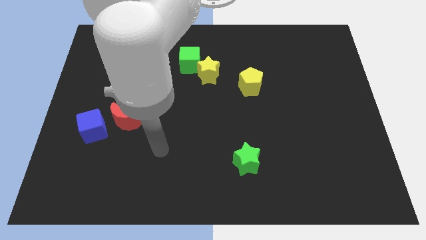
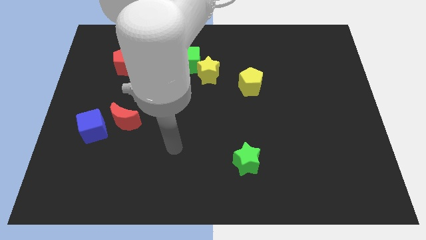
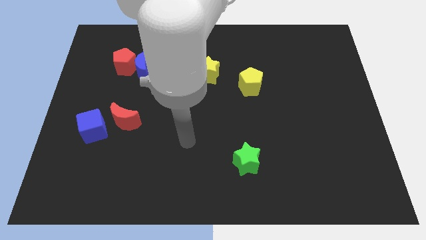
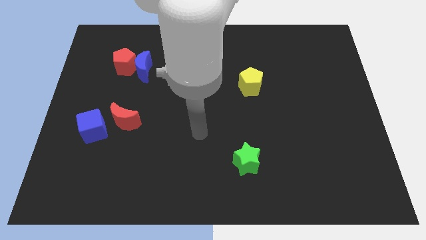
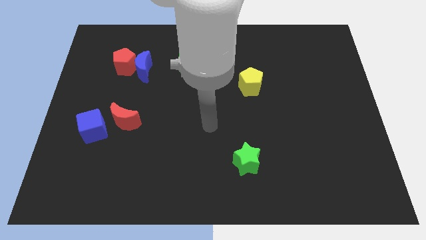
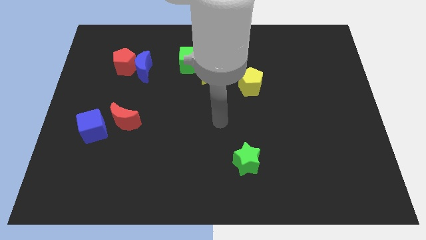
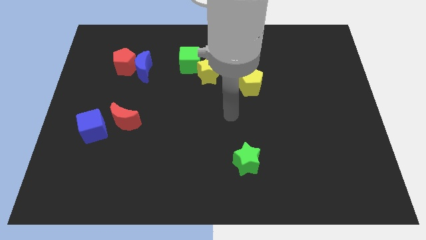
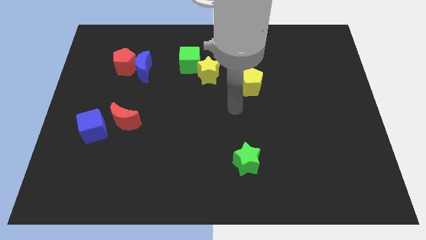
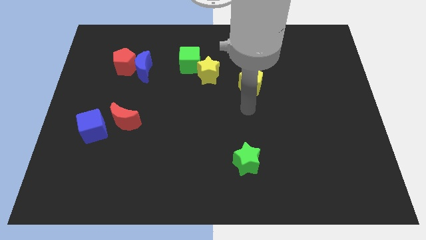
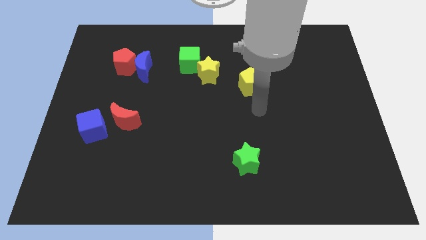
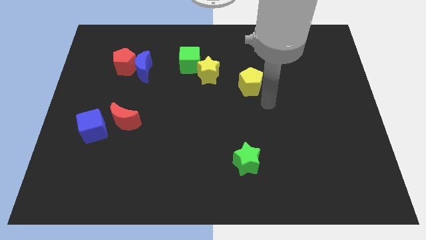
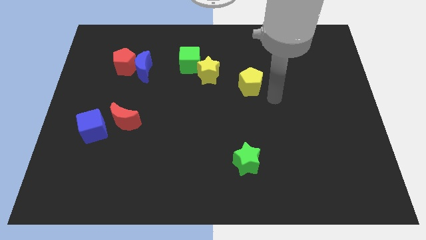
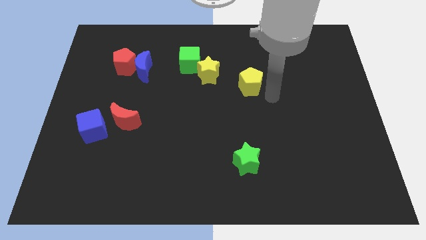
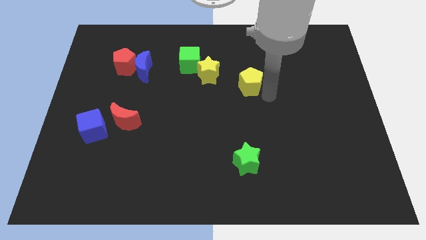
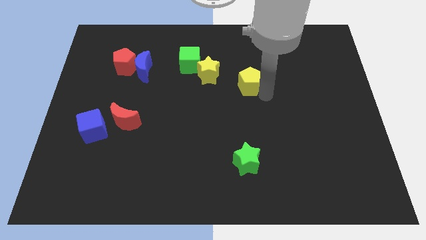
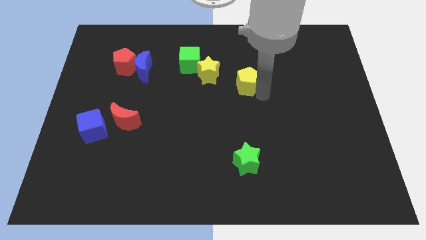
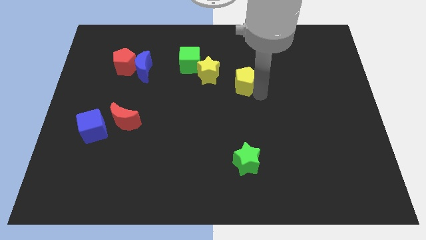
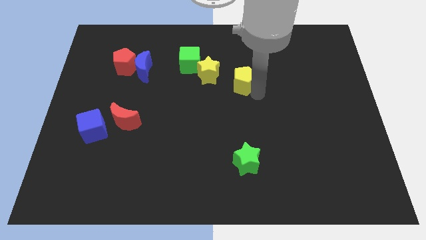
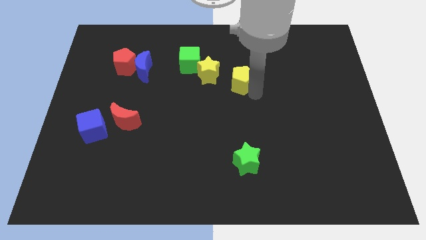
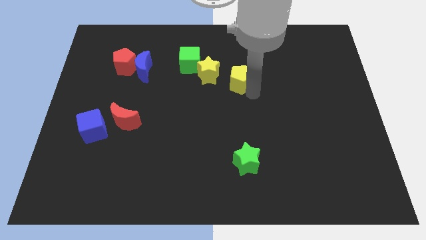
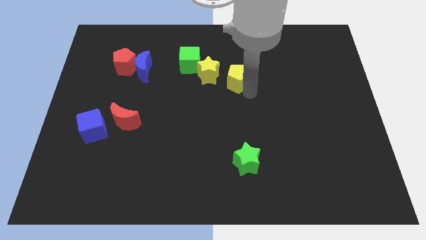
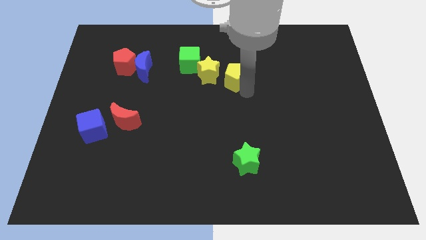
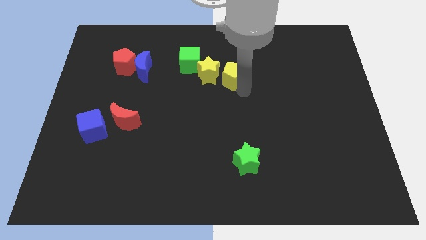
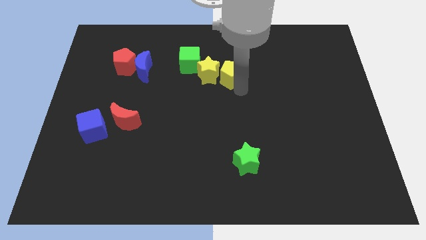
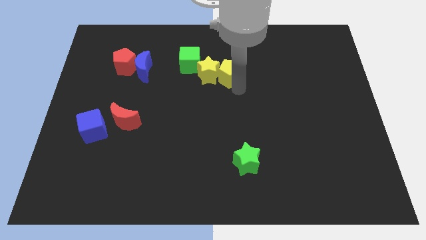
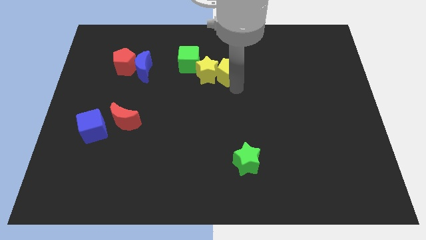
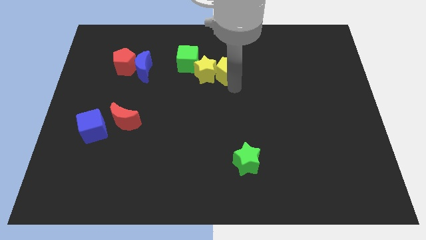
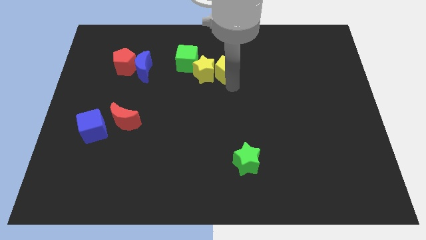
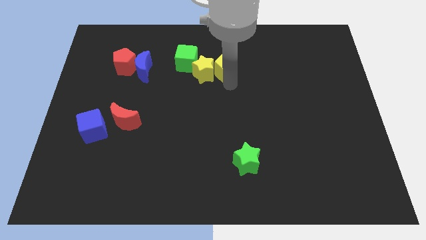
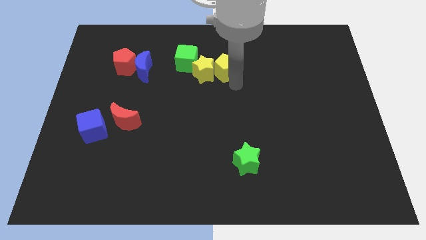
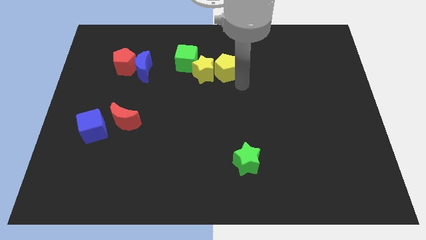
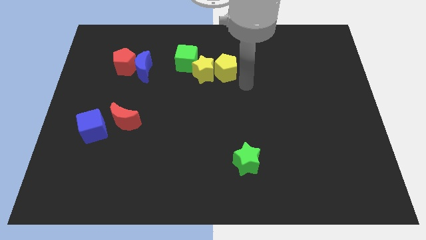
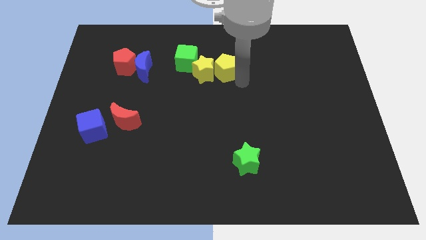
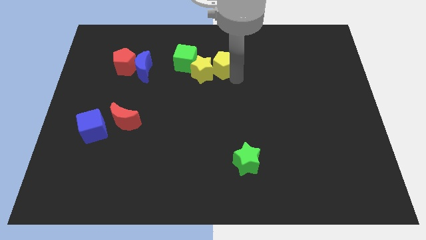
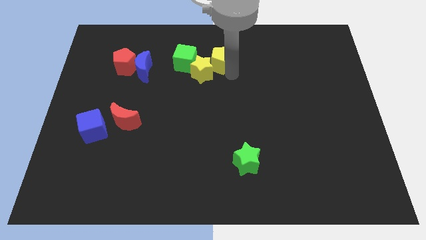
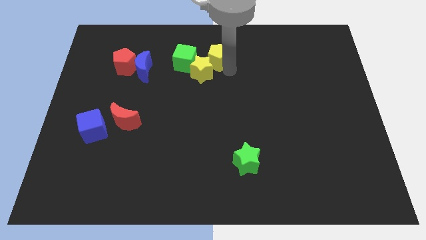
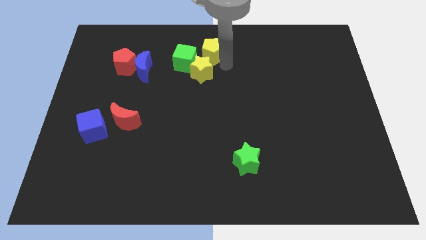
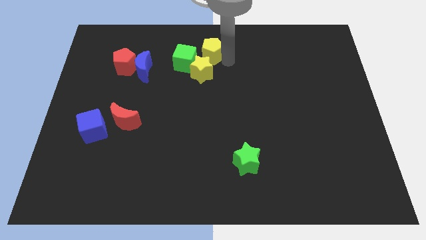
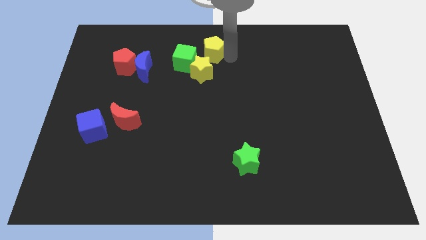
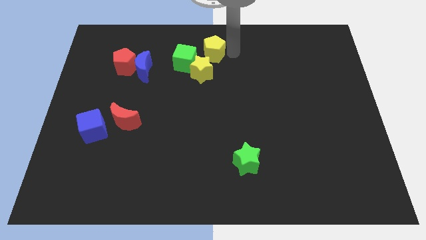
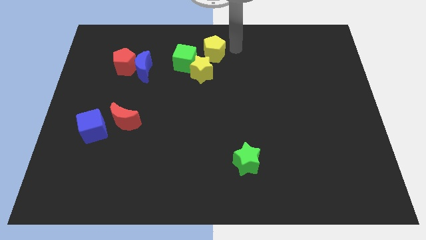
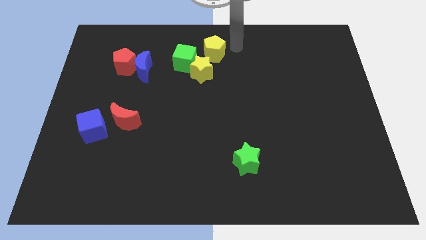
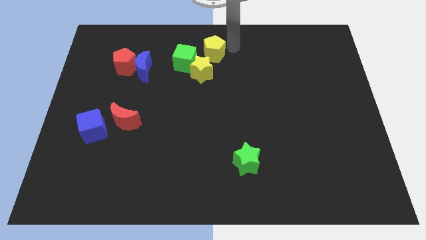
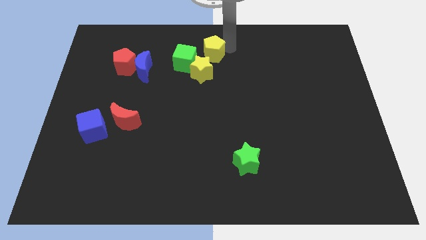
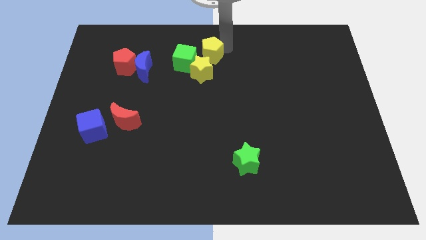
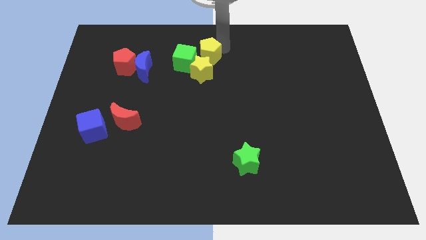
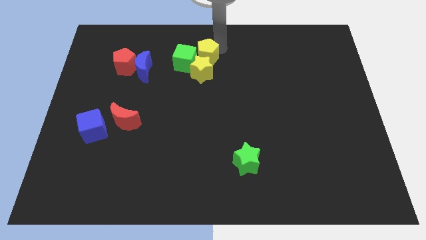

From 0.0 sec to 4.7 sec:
move the yellow pentagon next to the green cube

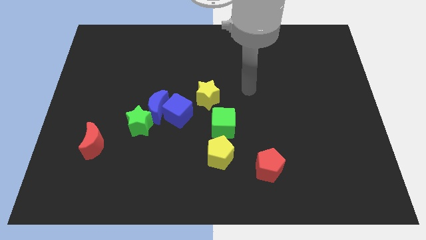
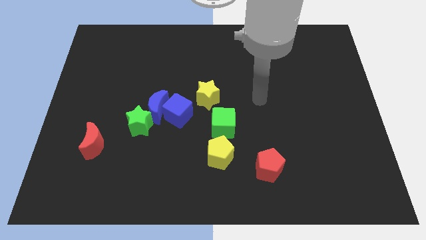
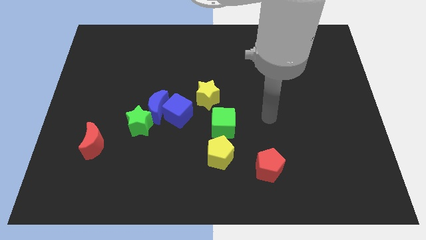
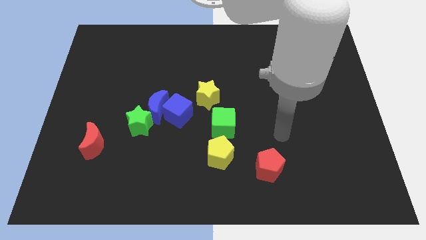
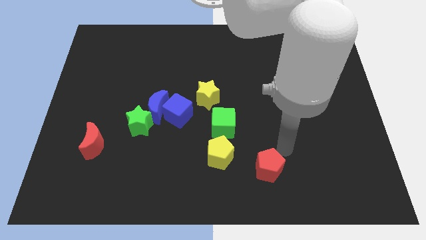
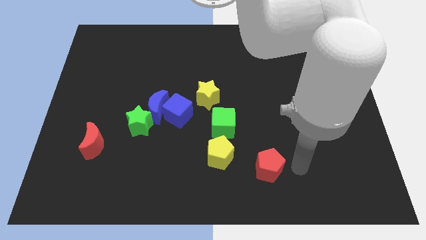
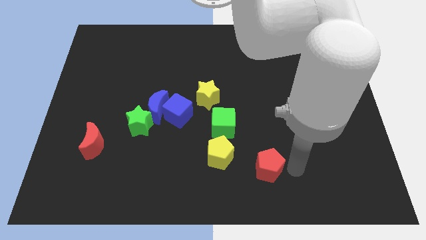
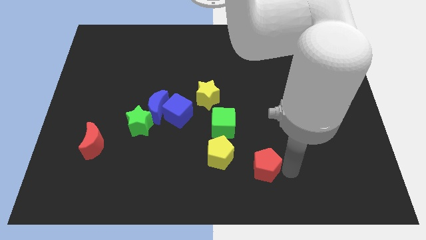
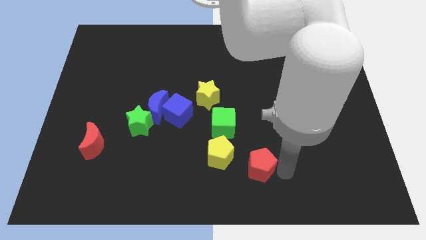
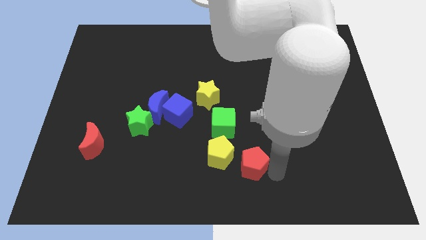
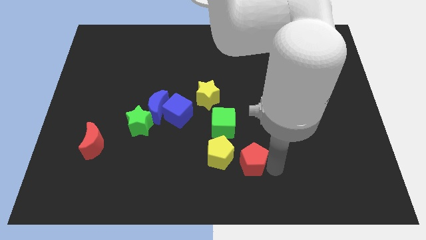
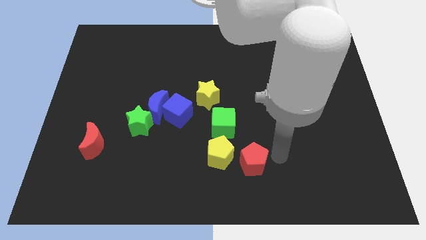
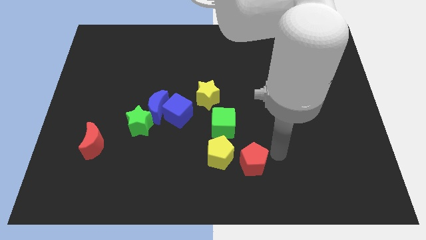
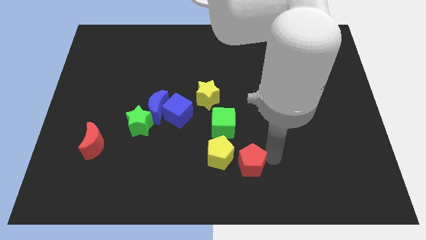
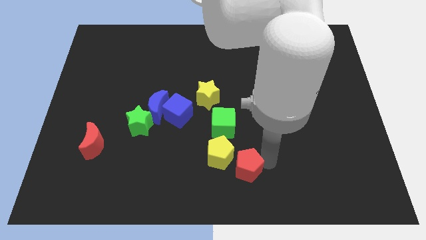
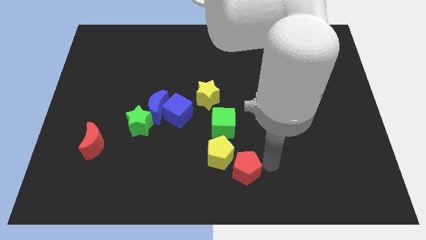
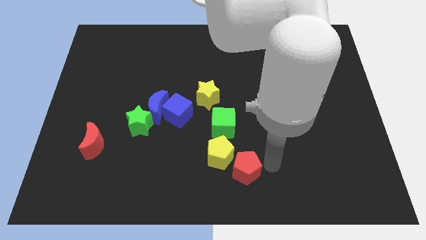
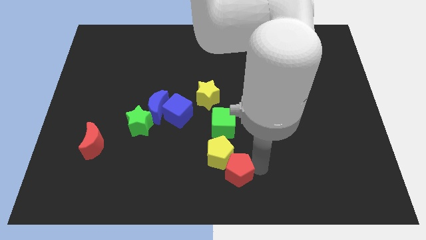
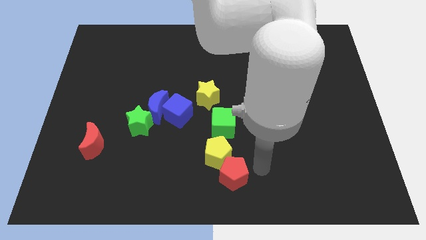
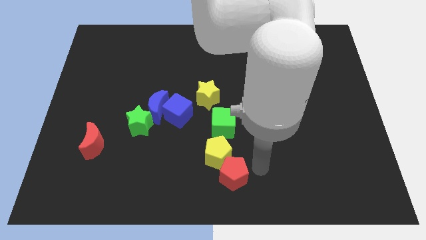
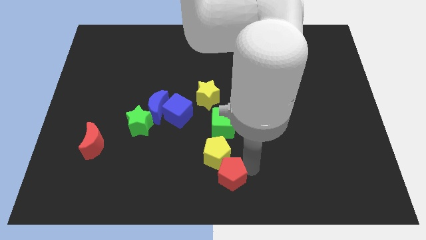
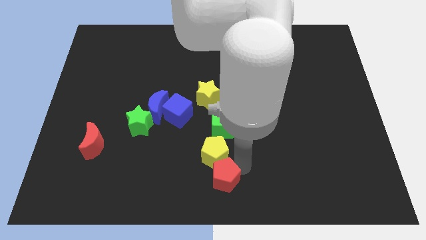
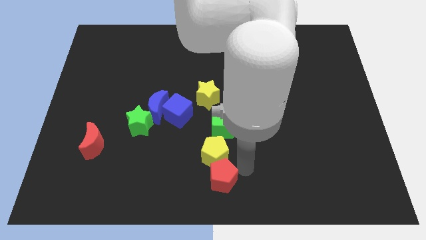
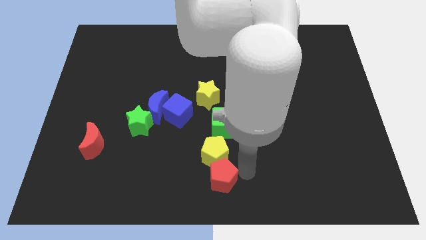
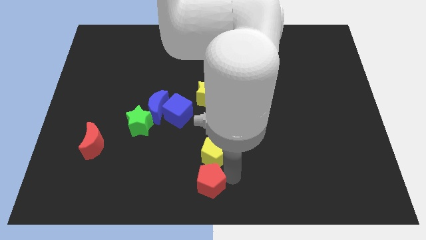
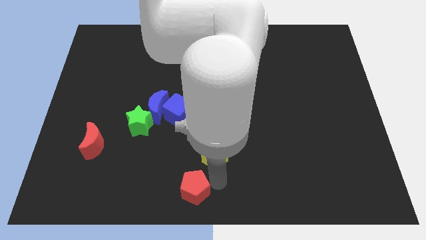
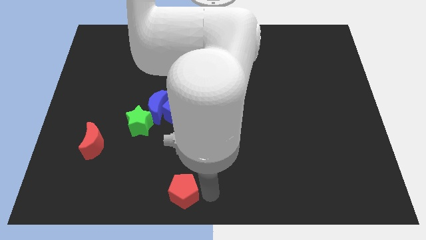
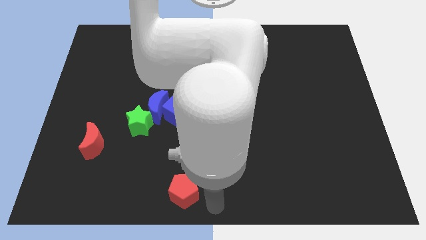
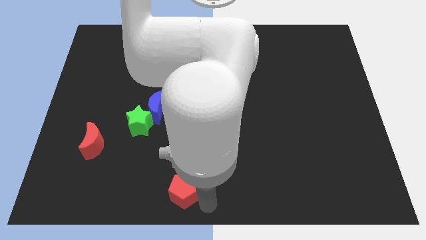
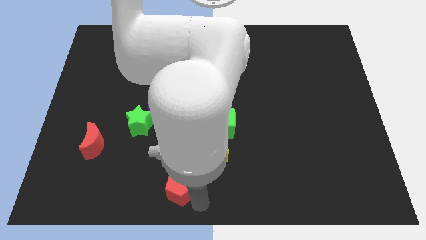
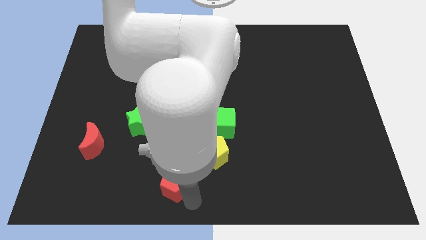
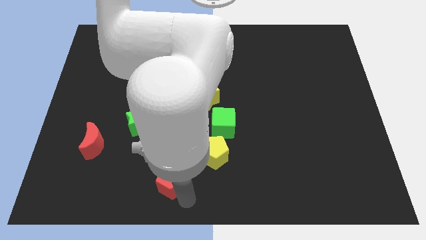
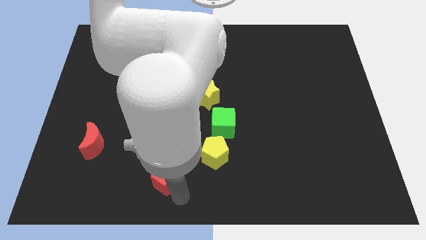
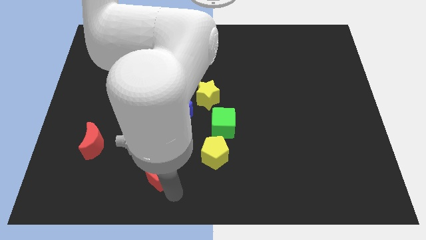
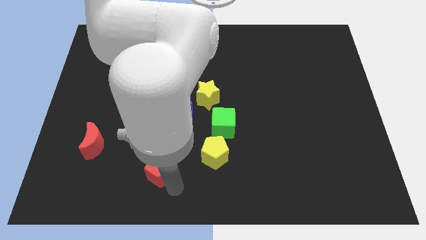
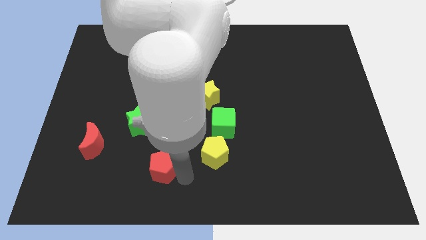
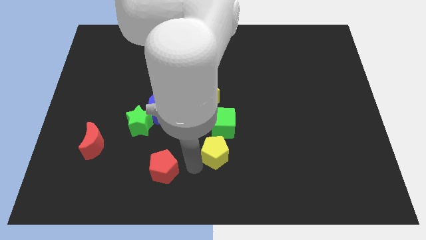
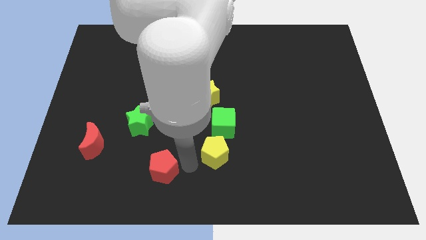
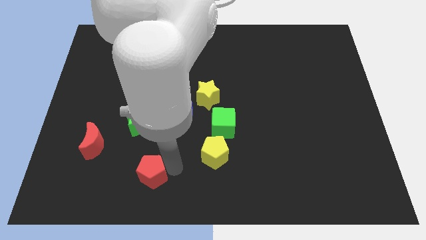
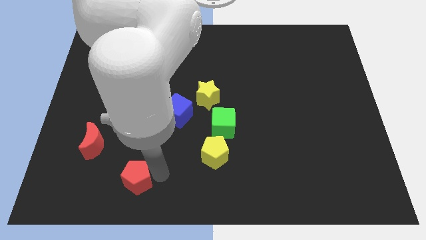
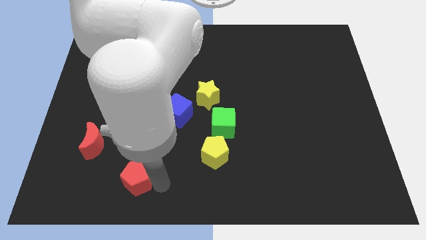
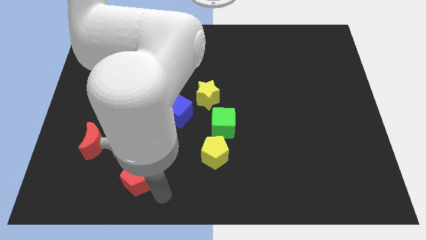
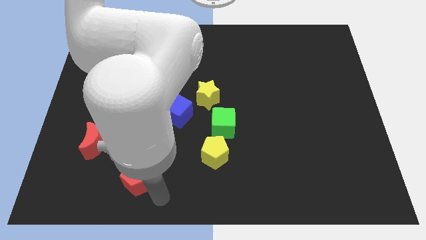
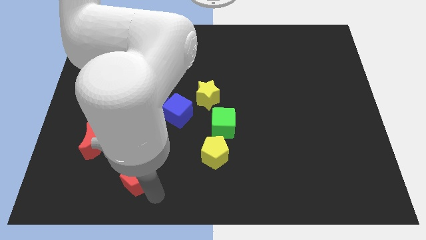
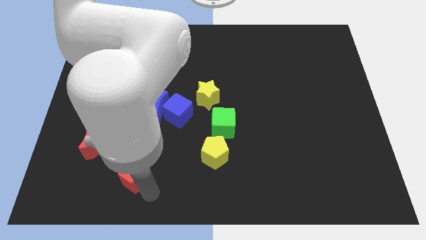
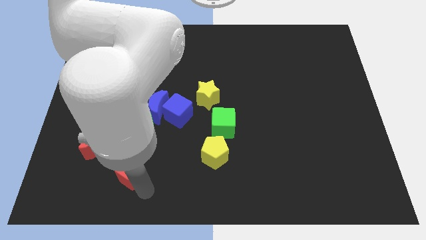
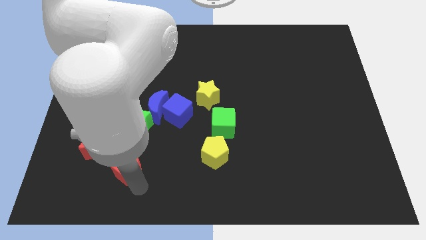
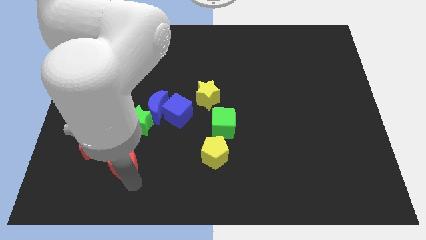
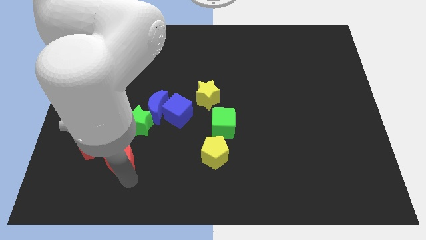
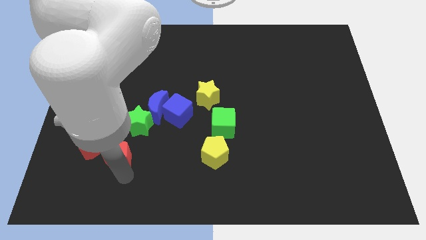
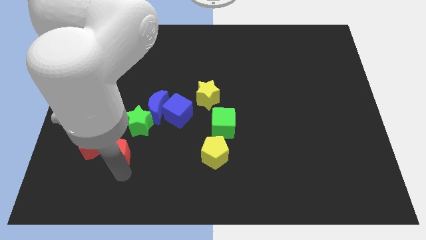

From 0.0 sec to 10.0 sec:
put the red pentagon close to the red moon
